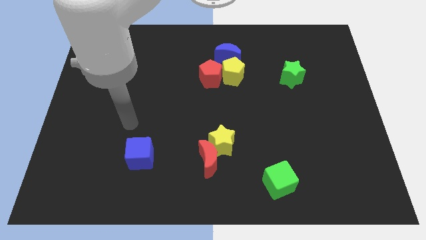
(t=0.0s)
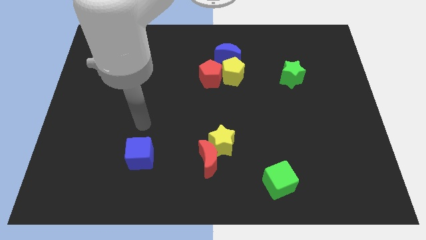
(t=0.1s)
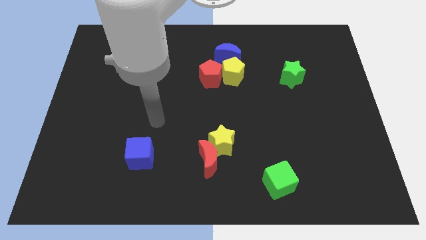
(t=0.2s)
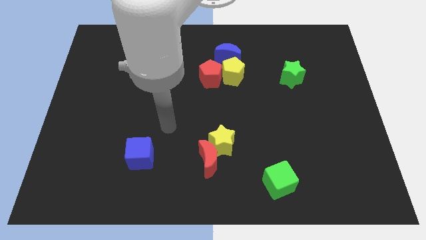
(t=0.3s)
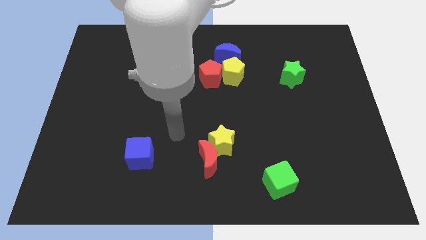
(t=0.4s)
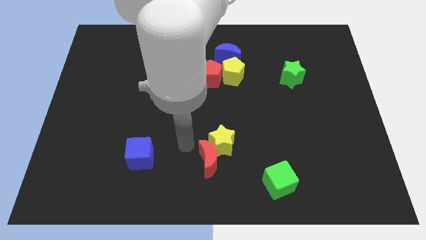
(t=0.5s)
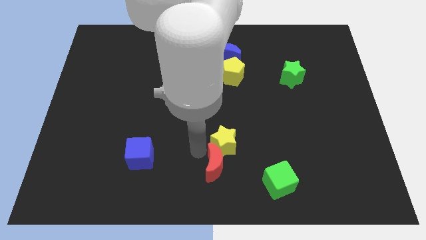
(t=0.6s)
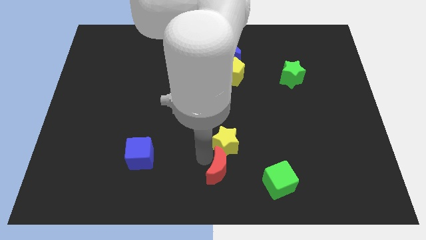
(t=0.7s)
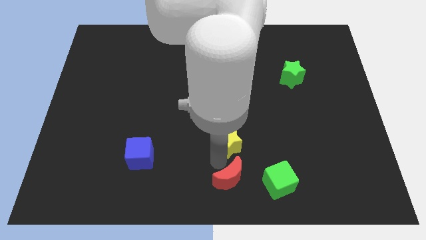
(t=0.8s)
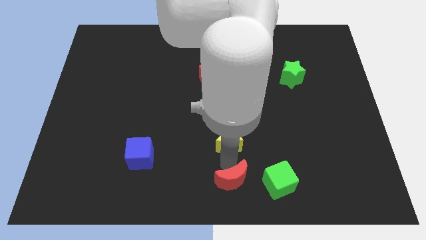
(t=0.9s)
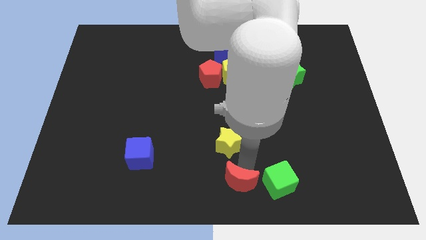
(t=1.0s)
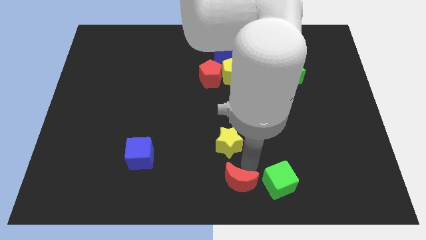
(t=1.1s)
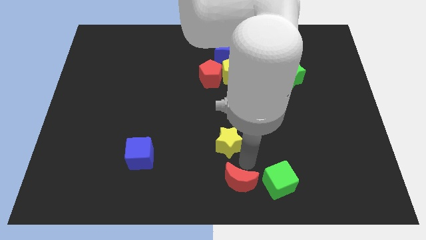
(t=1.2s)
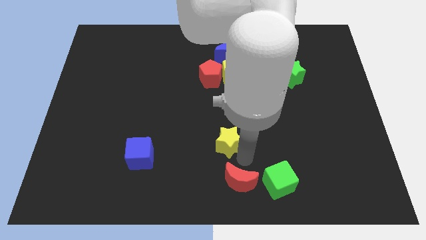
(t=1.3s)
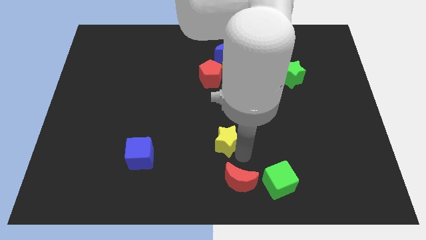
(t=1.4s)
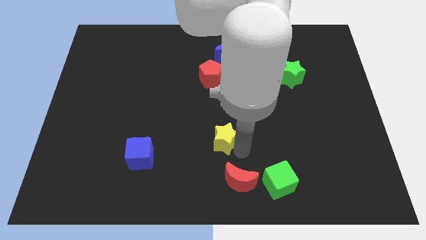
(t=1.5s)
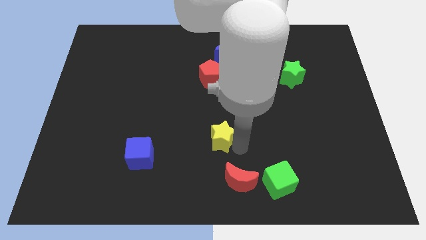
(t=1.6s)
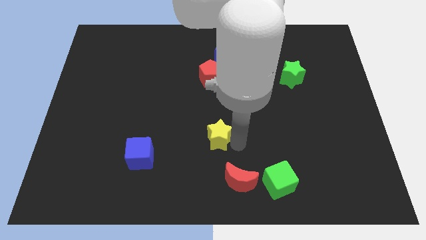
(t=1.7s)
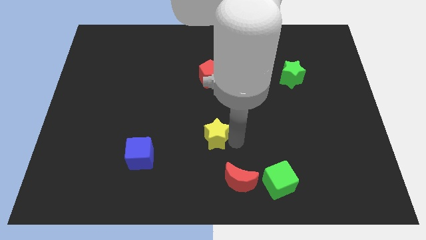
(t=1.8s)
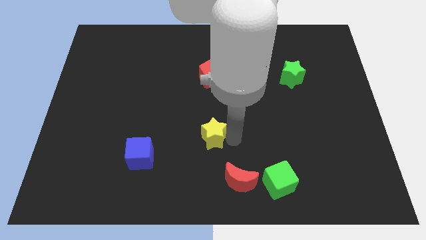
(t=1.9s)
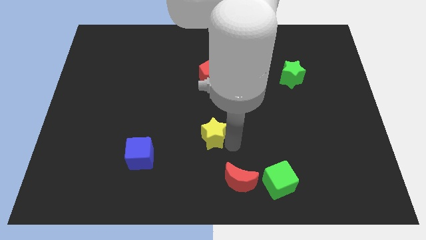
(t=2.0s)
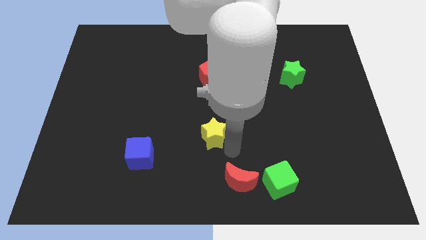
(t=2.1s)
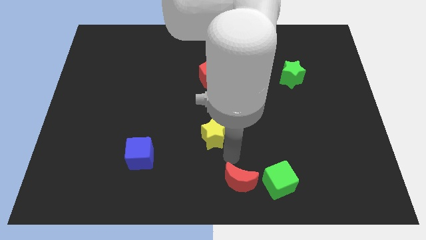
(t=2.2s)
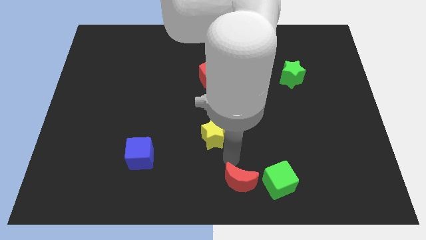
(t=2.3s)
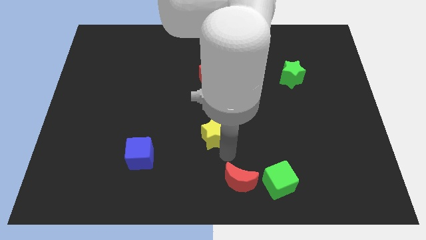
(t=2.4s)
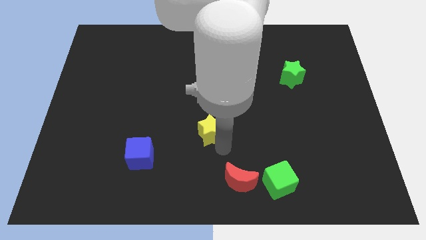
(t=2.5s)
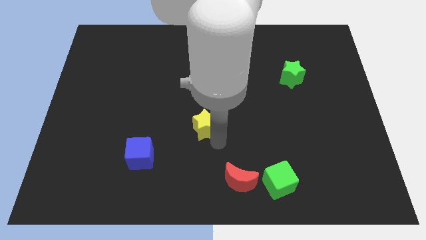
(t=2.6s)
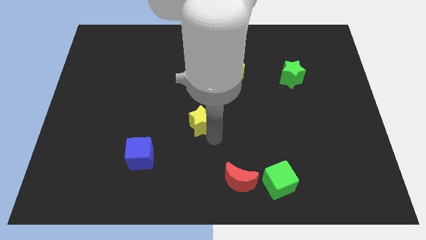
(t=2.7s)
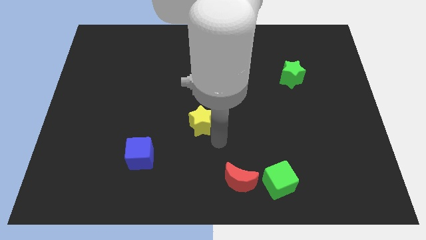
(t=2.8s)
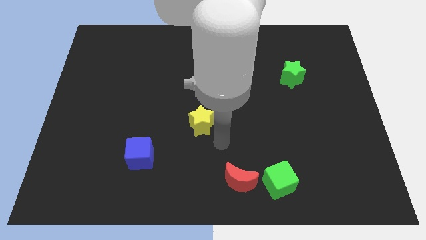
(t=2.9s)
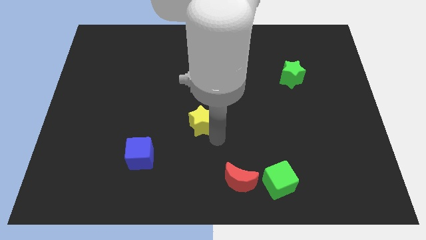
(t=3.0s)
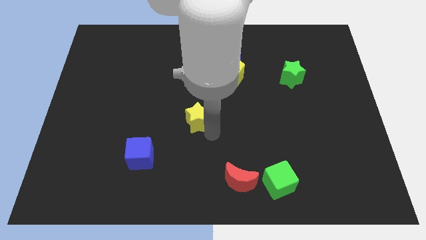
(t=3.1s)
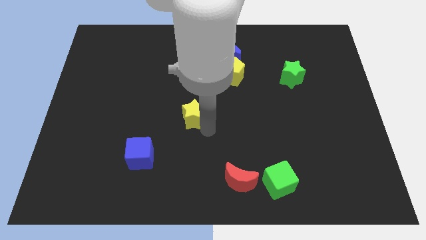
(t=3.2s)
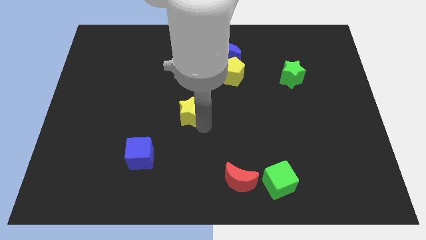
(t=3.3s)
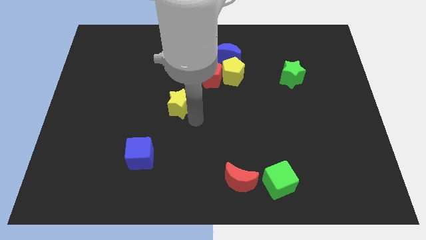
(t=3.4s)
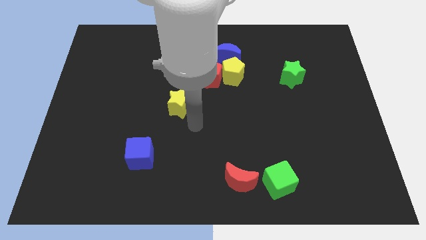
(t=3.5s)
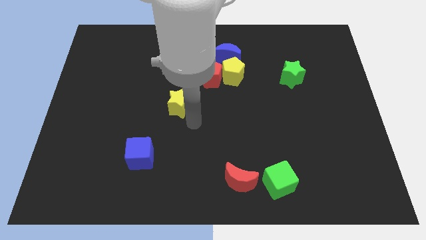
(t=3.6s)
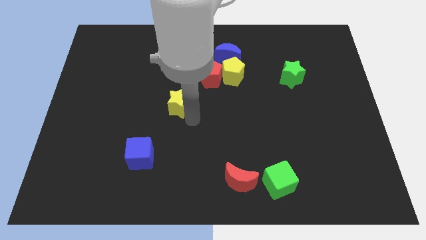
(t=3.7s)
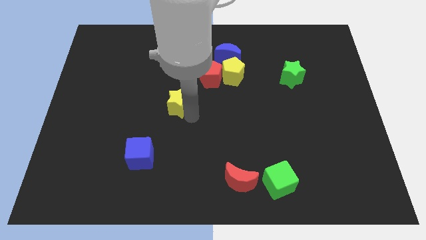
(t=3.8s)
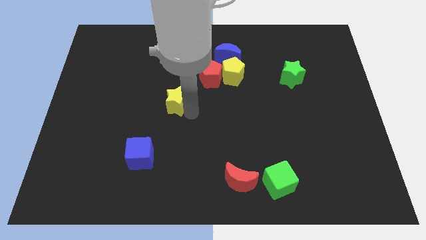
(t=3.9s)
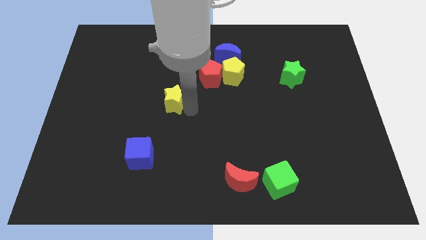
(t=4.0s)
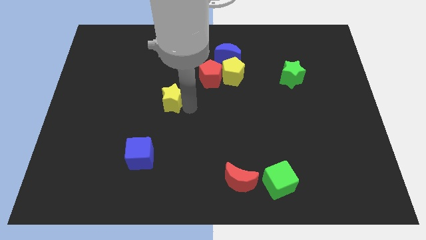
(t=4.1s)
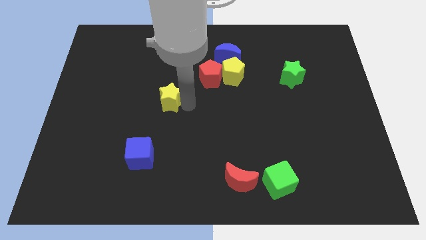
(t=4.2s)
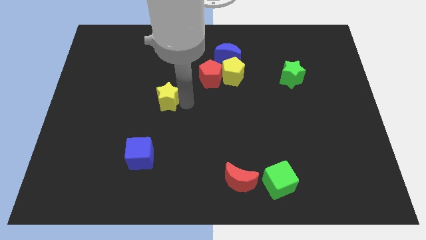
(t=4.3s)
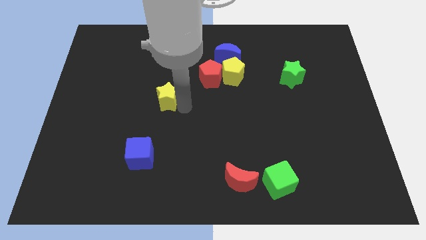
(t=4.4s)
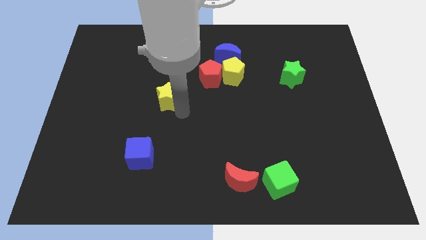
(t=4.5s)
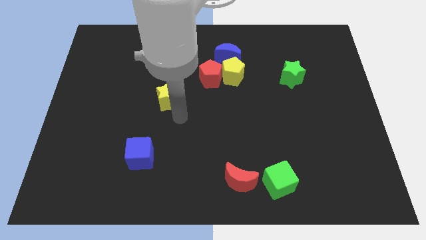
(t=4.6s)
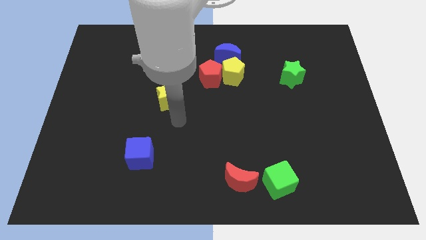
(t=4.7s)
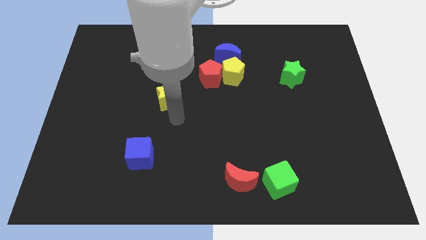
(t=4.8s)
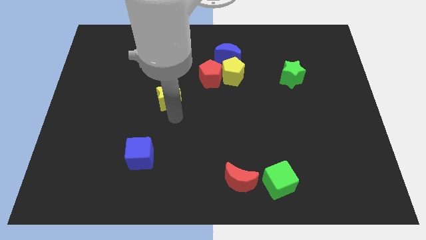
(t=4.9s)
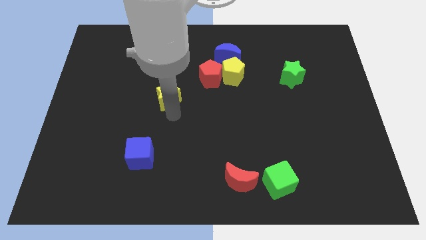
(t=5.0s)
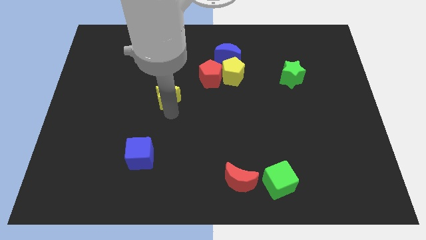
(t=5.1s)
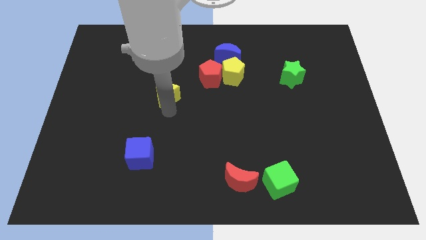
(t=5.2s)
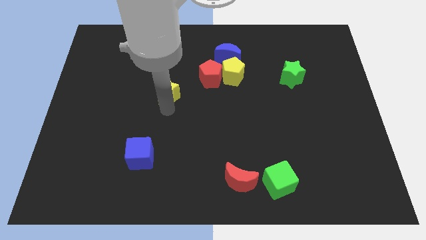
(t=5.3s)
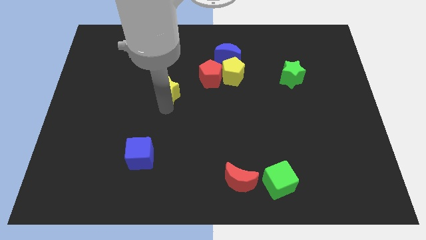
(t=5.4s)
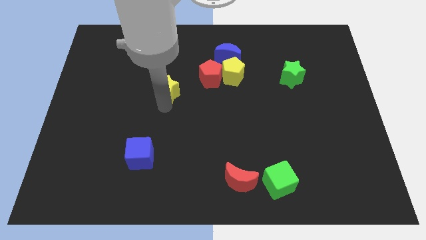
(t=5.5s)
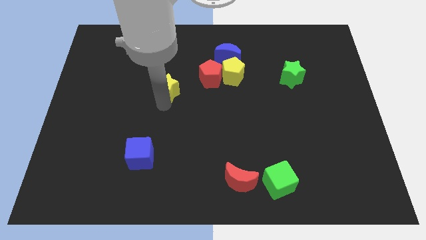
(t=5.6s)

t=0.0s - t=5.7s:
push the yellow star up and then left

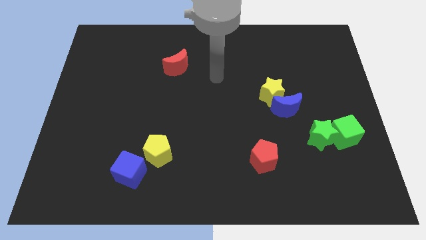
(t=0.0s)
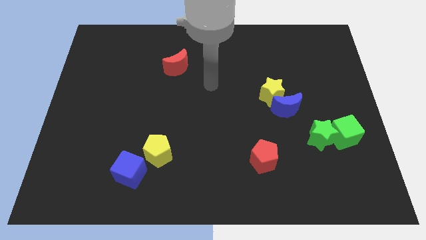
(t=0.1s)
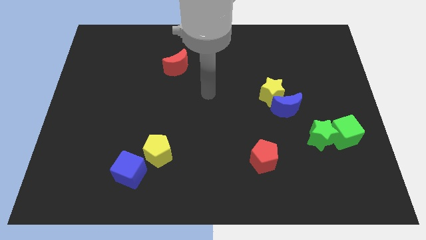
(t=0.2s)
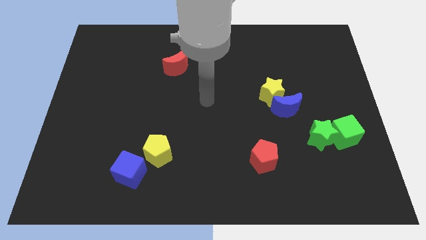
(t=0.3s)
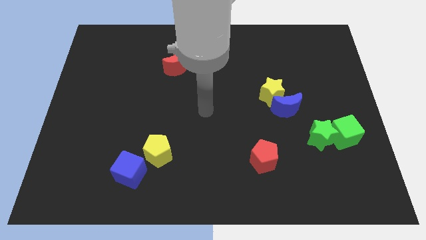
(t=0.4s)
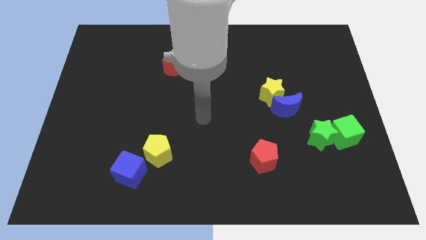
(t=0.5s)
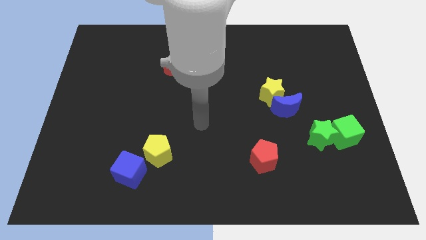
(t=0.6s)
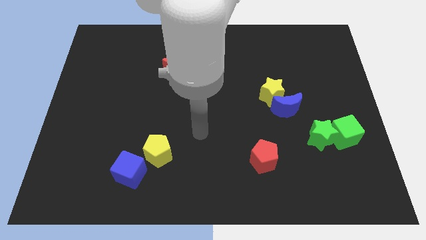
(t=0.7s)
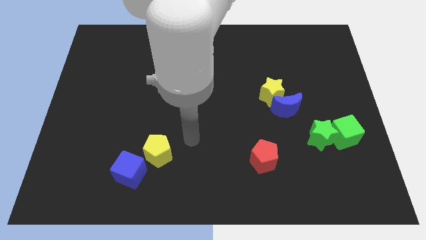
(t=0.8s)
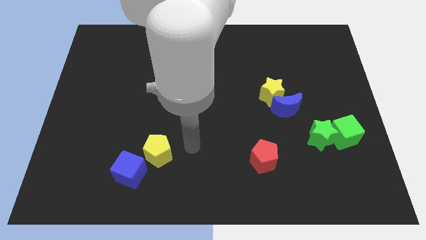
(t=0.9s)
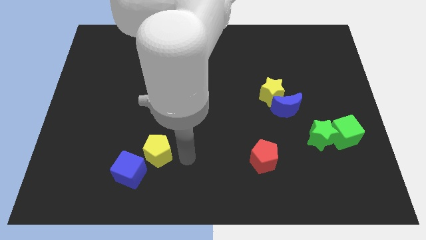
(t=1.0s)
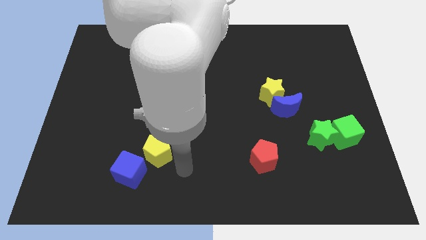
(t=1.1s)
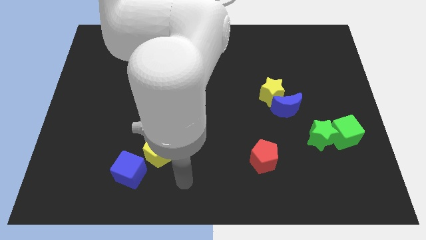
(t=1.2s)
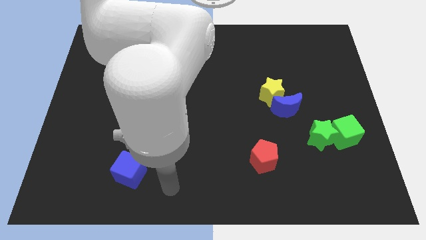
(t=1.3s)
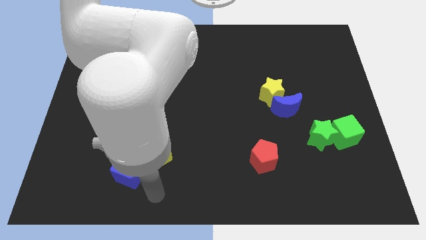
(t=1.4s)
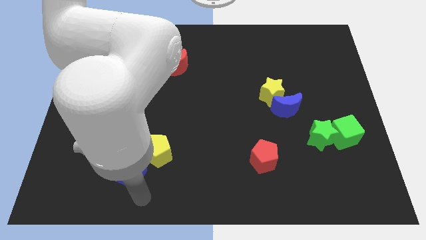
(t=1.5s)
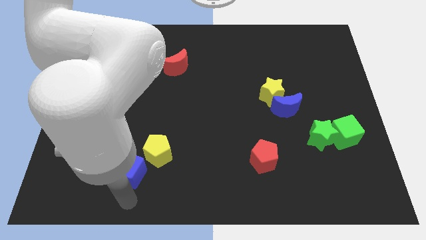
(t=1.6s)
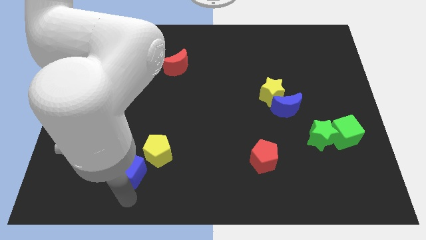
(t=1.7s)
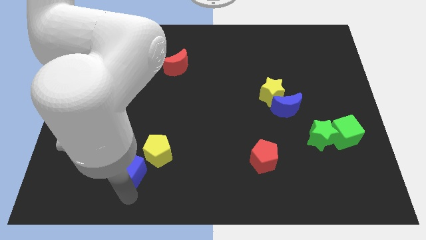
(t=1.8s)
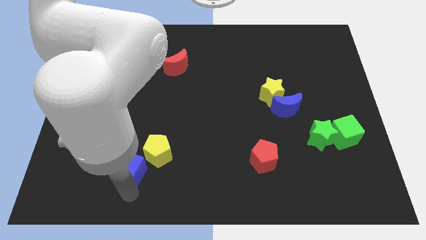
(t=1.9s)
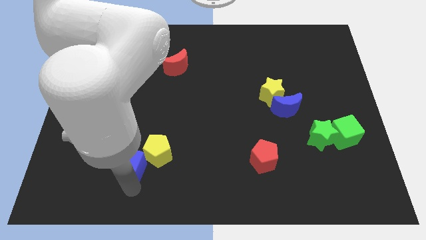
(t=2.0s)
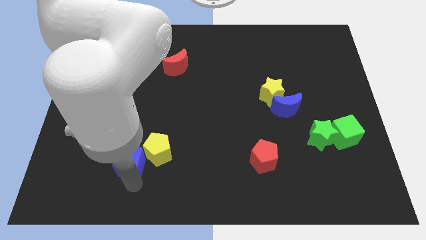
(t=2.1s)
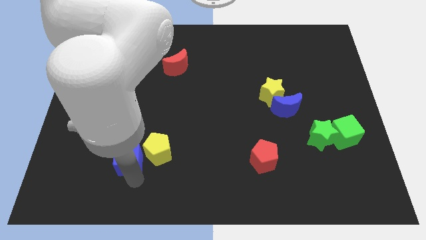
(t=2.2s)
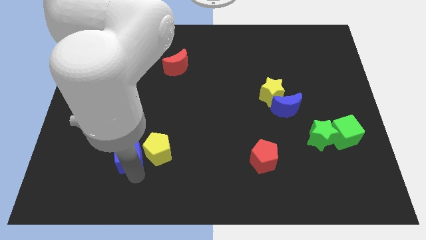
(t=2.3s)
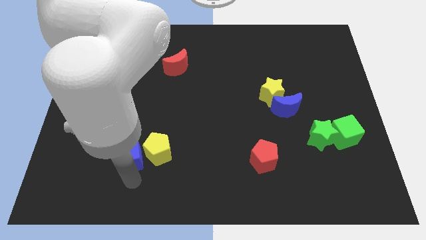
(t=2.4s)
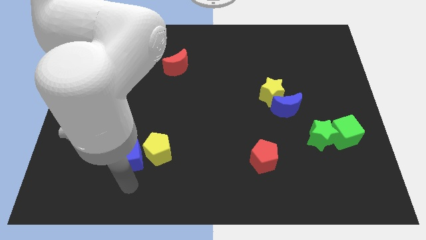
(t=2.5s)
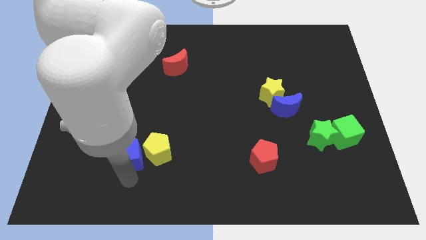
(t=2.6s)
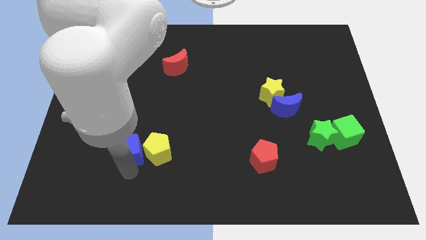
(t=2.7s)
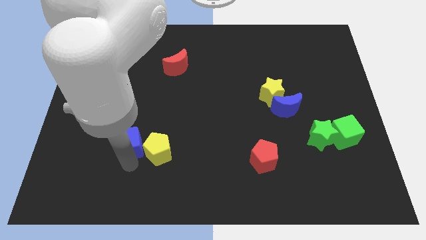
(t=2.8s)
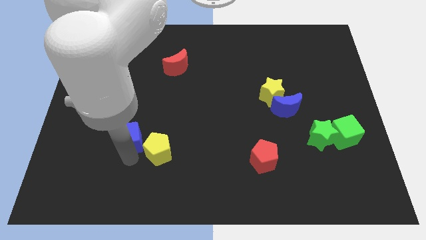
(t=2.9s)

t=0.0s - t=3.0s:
move the blue cube slightly upwards
